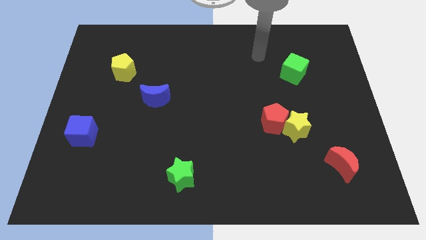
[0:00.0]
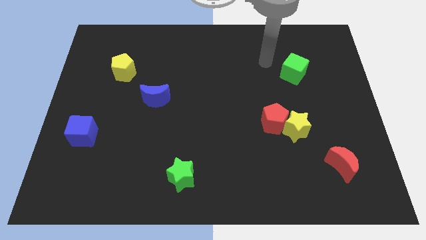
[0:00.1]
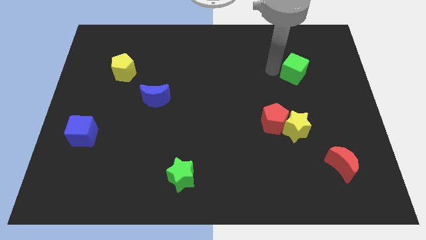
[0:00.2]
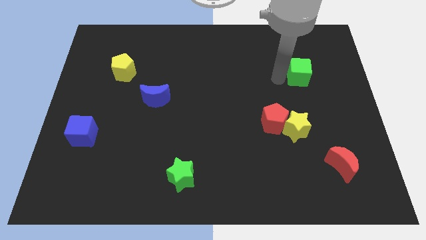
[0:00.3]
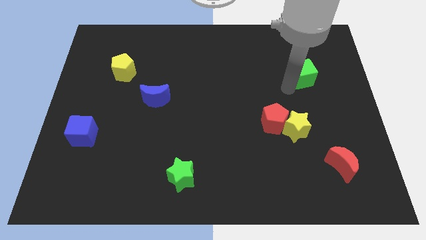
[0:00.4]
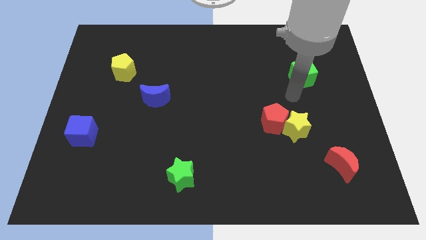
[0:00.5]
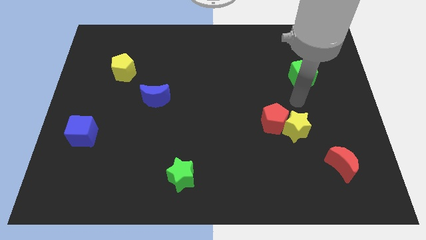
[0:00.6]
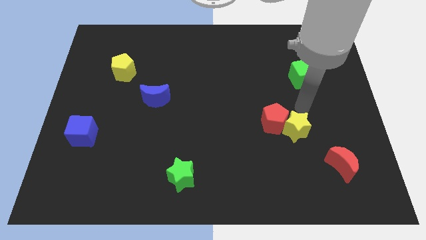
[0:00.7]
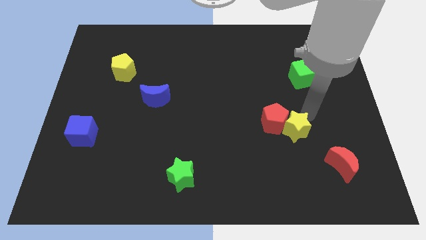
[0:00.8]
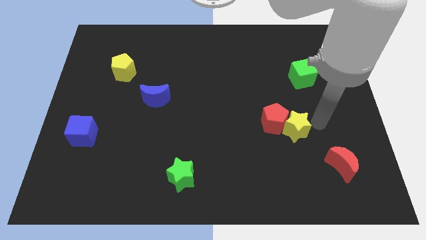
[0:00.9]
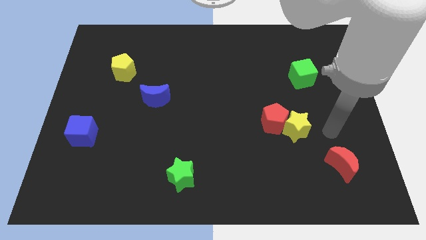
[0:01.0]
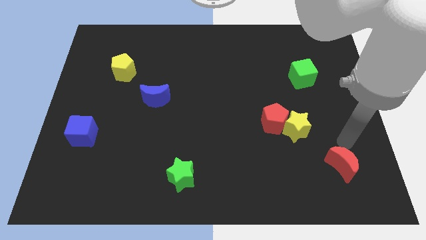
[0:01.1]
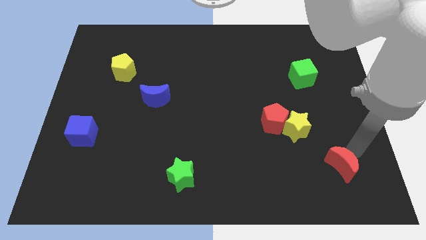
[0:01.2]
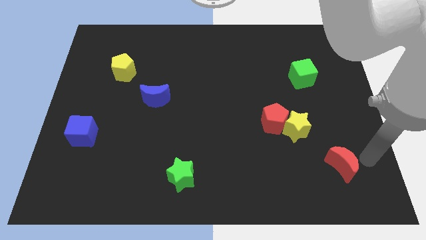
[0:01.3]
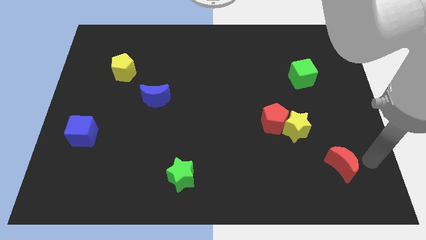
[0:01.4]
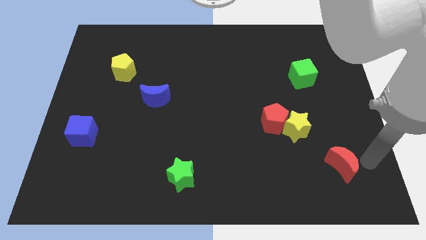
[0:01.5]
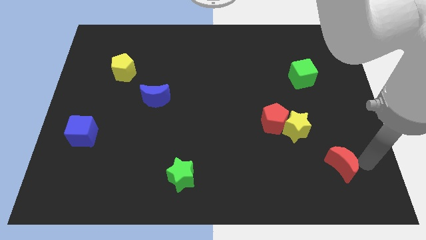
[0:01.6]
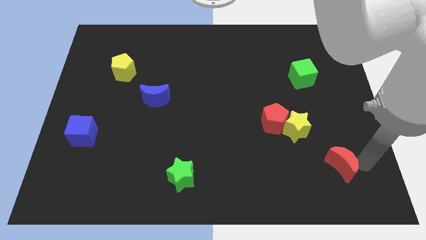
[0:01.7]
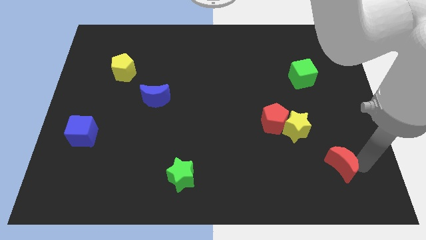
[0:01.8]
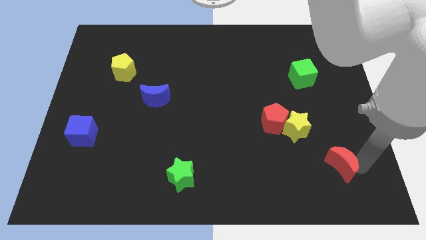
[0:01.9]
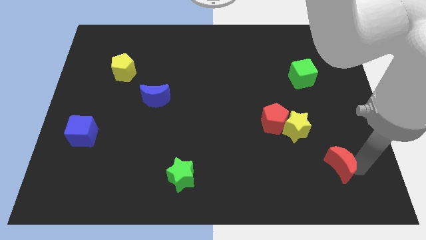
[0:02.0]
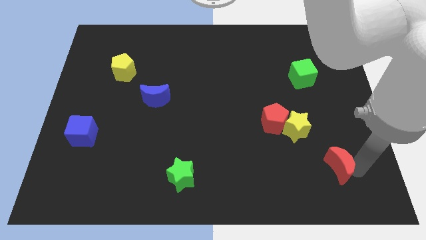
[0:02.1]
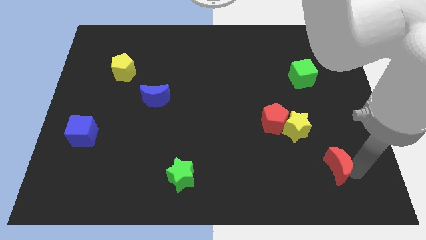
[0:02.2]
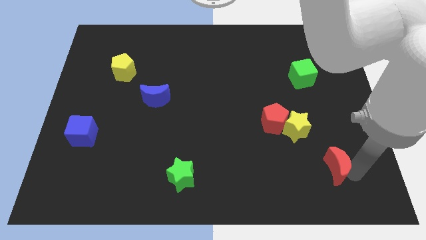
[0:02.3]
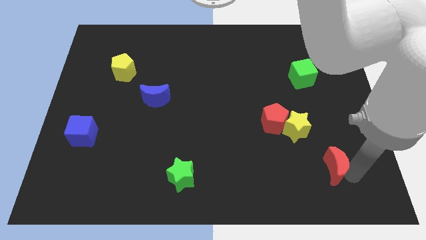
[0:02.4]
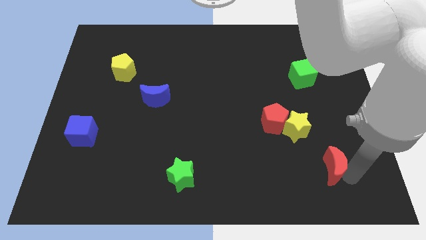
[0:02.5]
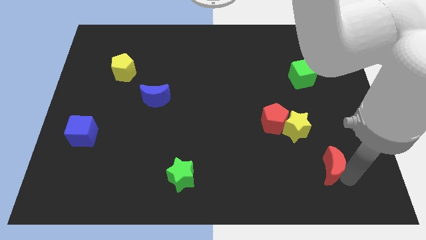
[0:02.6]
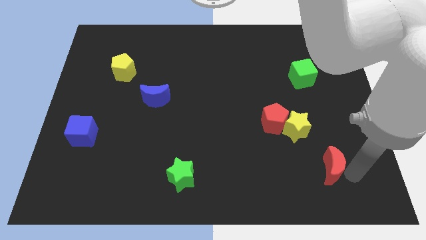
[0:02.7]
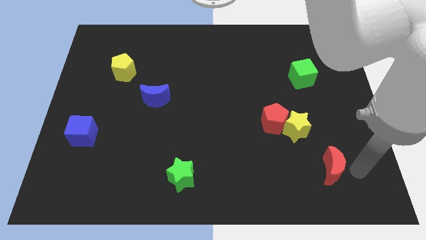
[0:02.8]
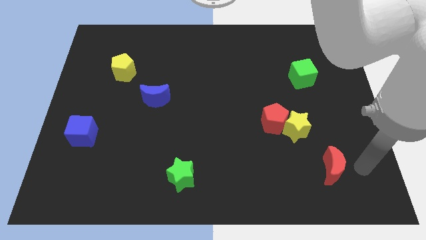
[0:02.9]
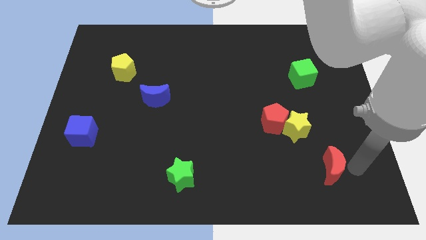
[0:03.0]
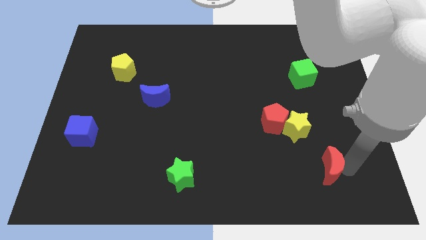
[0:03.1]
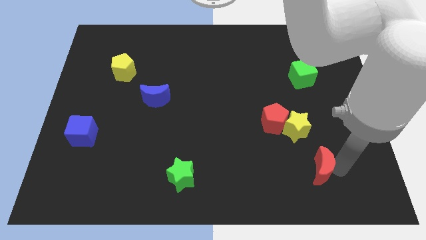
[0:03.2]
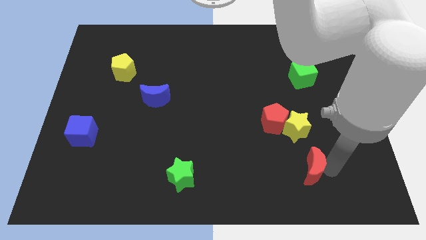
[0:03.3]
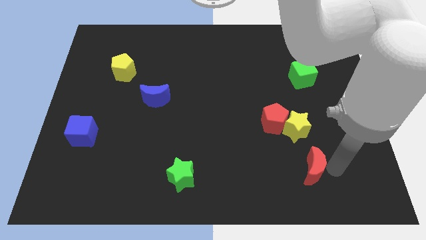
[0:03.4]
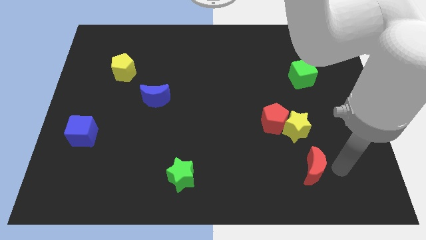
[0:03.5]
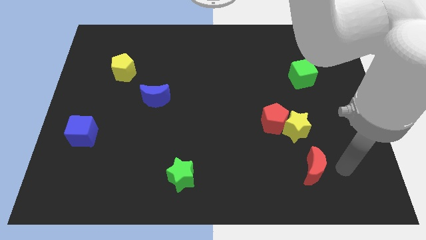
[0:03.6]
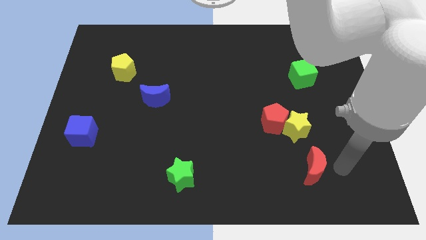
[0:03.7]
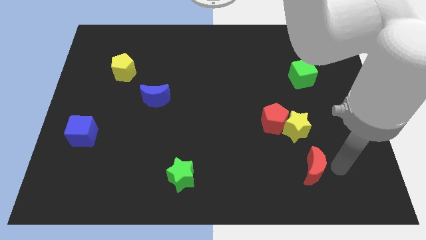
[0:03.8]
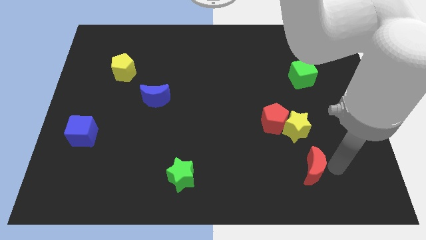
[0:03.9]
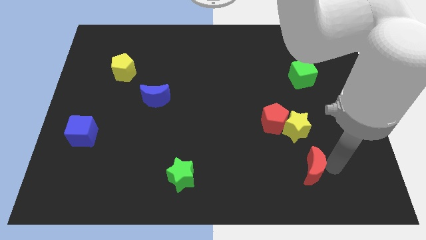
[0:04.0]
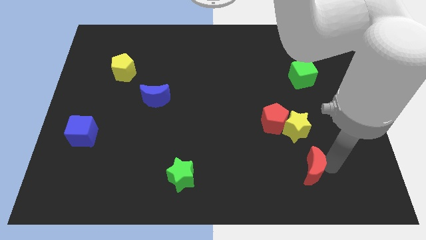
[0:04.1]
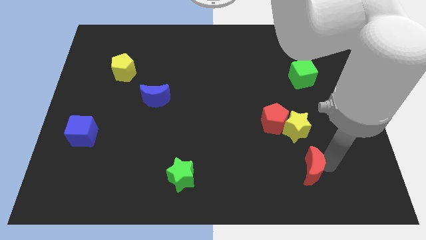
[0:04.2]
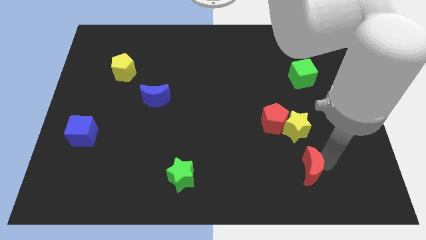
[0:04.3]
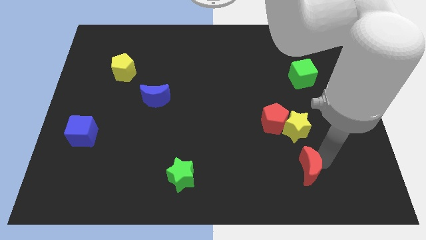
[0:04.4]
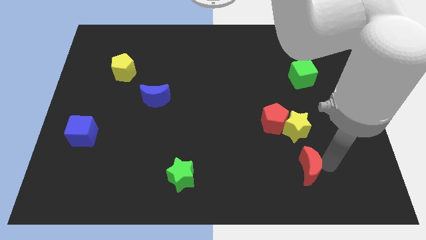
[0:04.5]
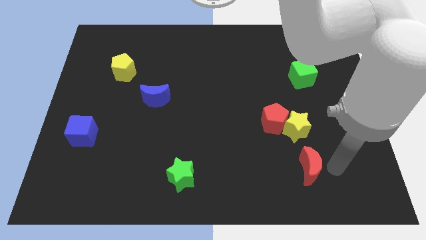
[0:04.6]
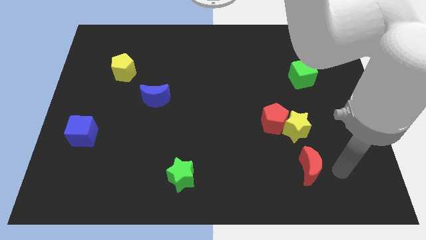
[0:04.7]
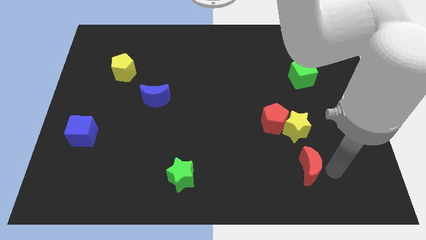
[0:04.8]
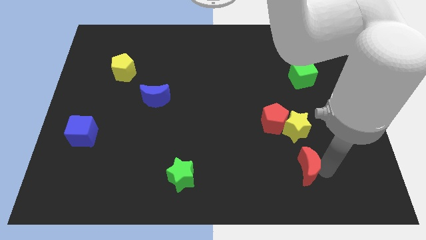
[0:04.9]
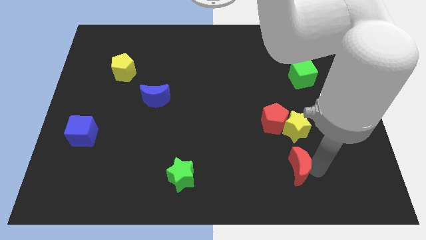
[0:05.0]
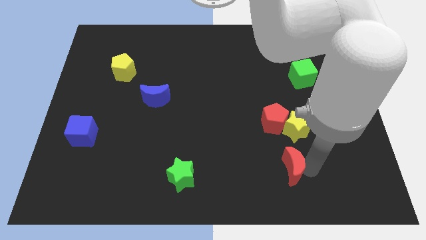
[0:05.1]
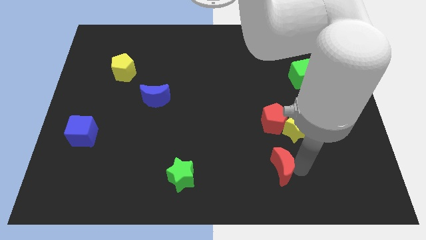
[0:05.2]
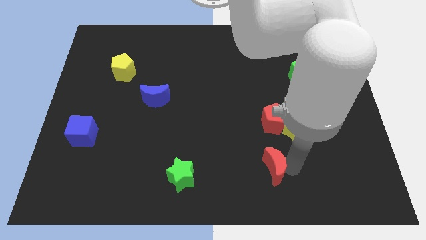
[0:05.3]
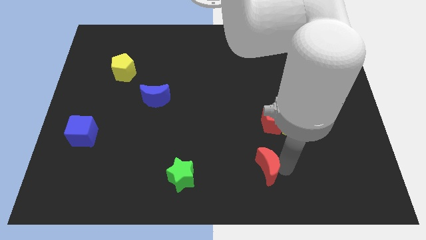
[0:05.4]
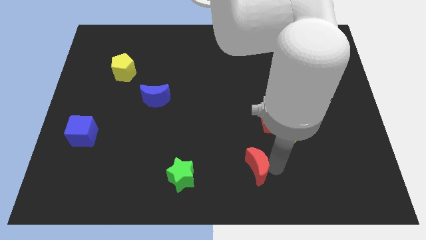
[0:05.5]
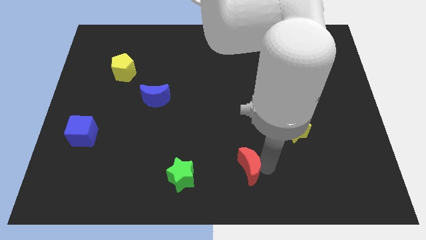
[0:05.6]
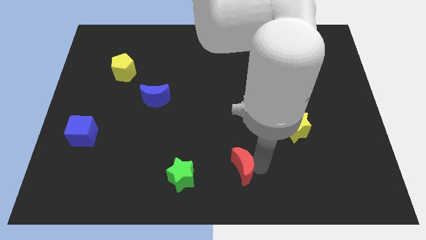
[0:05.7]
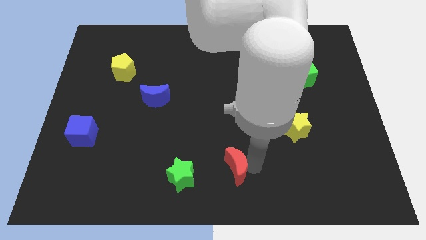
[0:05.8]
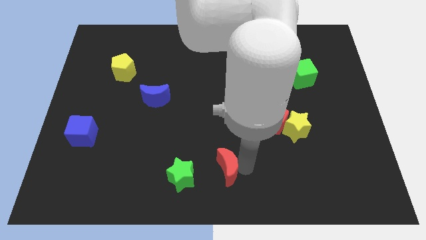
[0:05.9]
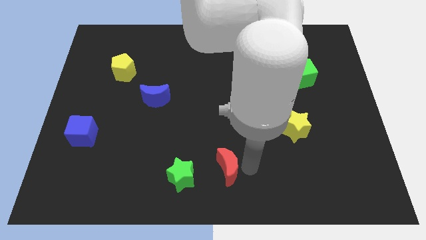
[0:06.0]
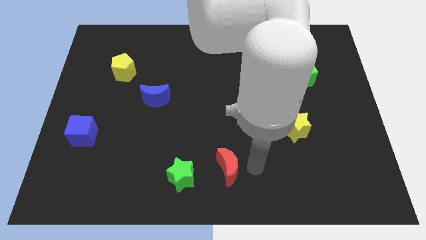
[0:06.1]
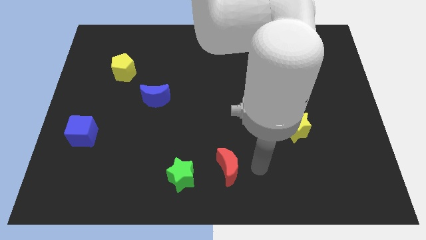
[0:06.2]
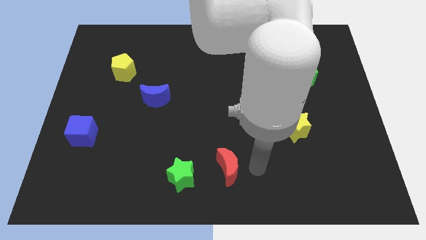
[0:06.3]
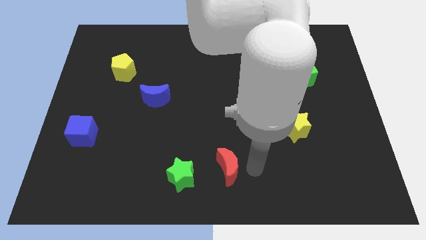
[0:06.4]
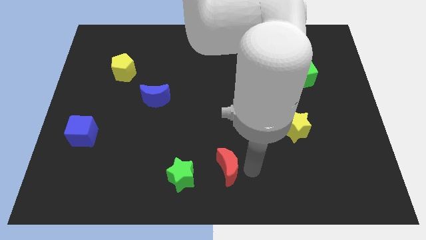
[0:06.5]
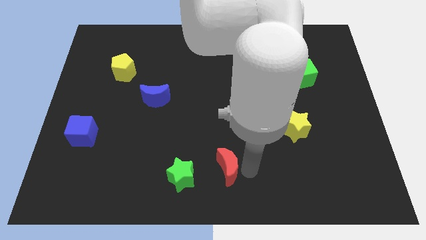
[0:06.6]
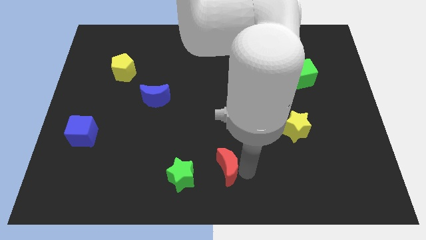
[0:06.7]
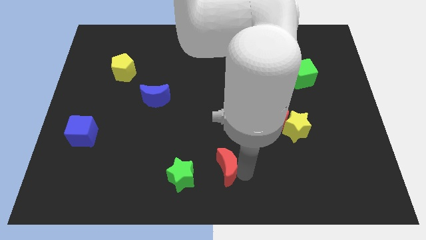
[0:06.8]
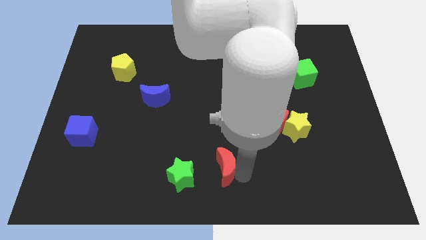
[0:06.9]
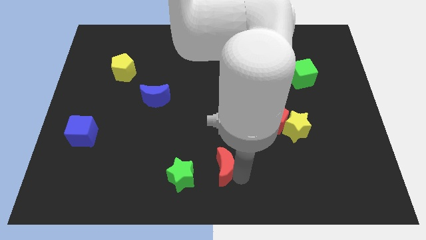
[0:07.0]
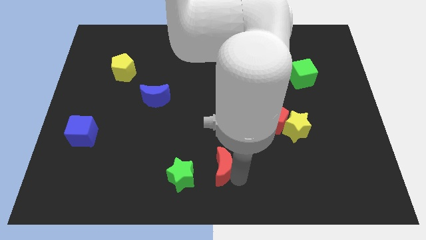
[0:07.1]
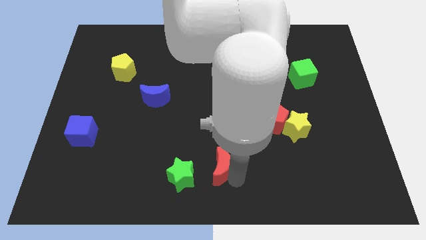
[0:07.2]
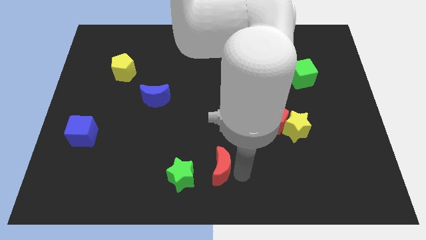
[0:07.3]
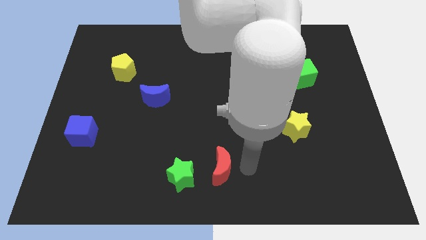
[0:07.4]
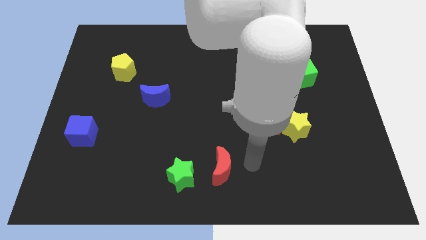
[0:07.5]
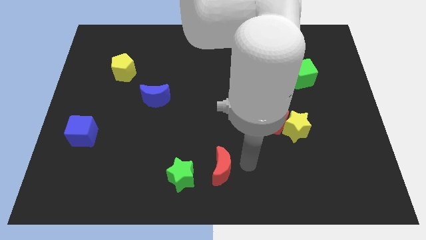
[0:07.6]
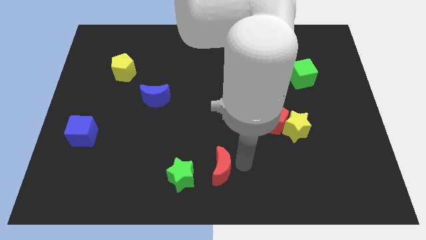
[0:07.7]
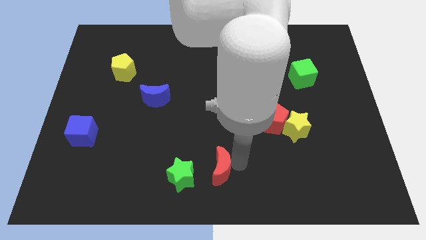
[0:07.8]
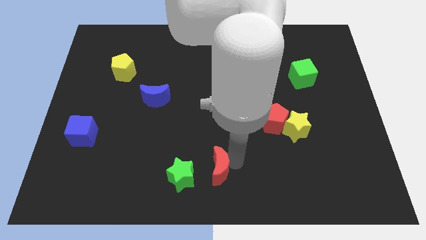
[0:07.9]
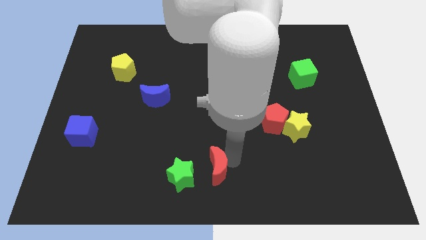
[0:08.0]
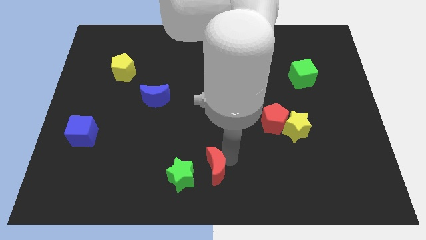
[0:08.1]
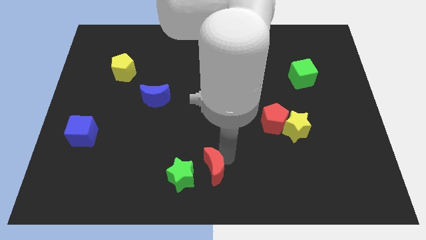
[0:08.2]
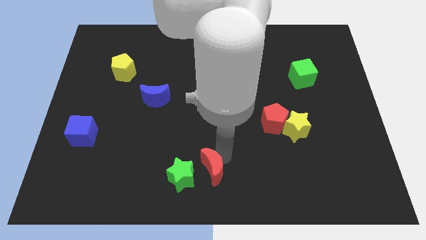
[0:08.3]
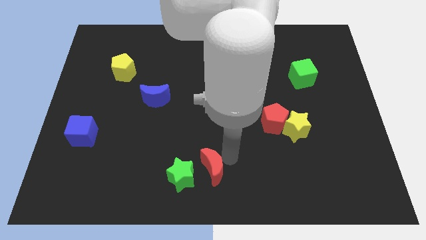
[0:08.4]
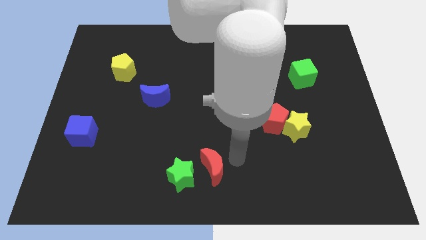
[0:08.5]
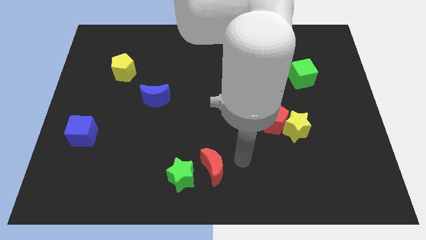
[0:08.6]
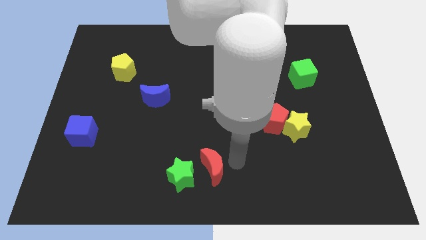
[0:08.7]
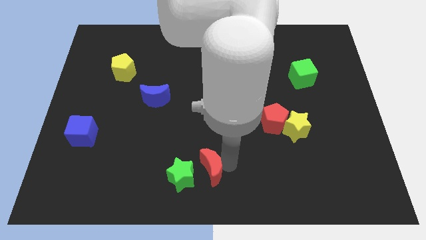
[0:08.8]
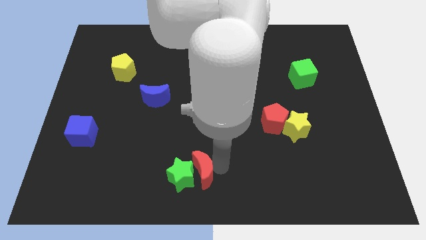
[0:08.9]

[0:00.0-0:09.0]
slide the red moon close to the green star
